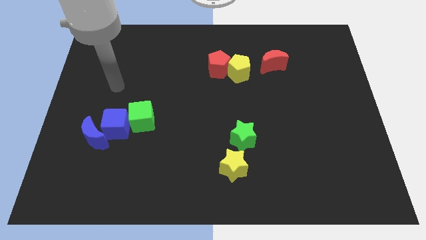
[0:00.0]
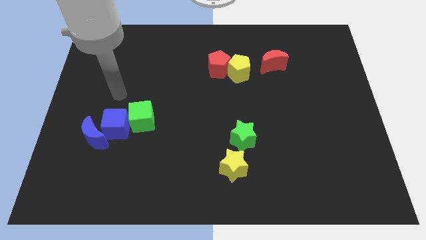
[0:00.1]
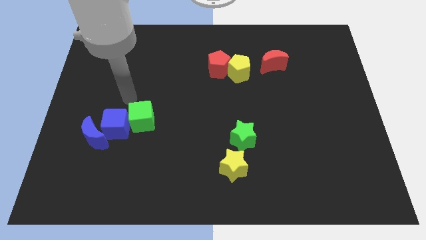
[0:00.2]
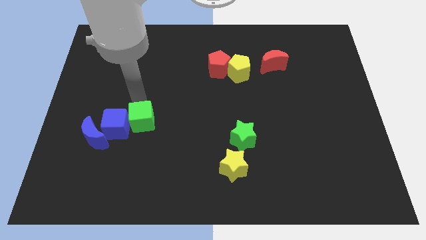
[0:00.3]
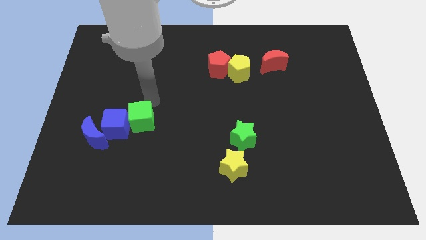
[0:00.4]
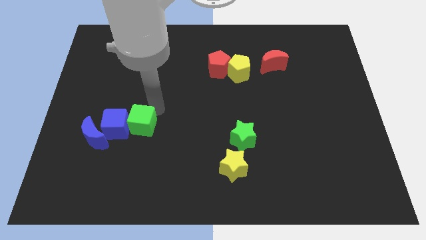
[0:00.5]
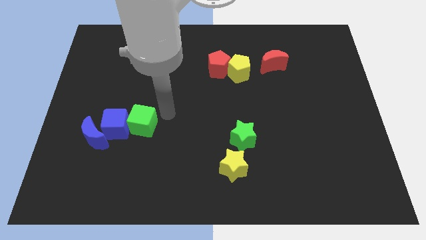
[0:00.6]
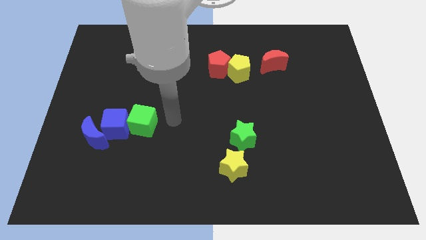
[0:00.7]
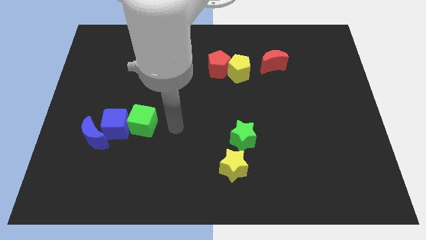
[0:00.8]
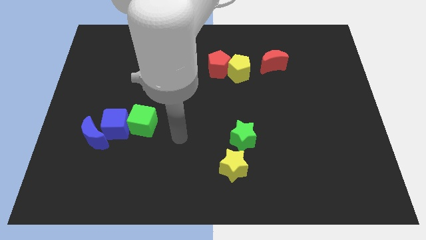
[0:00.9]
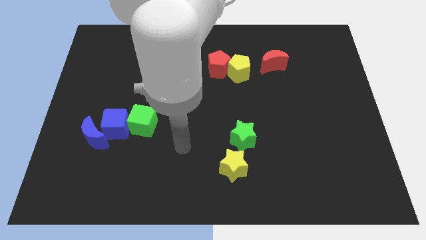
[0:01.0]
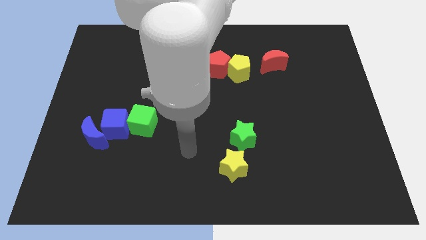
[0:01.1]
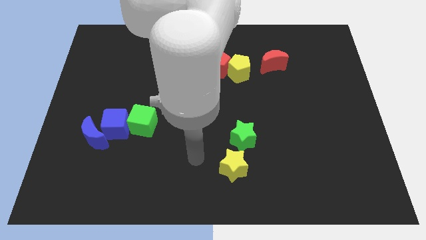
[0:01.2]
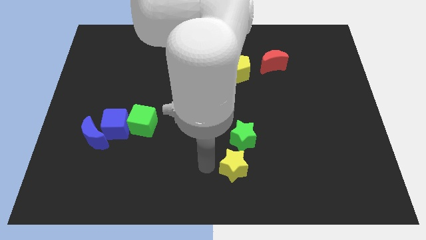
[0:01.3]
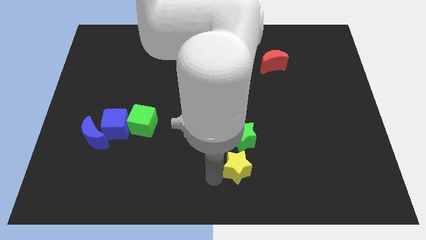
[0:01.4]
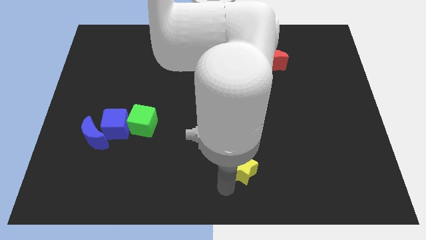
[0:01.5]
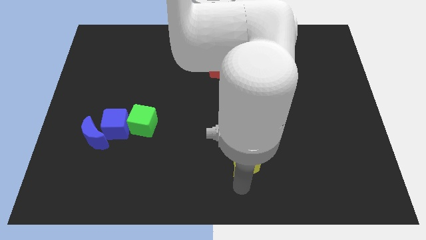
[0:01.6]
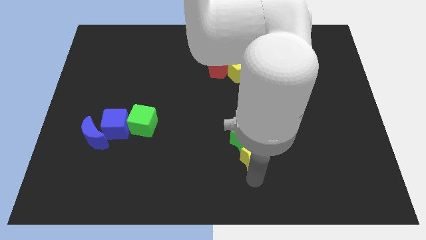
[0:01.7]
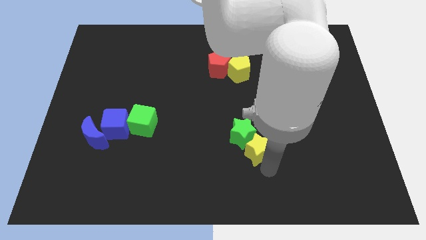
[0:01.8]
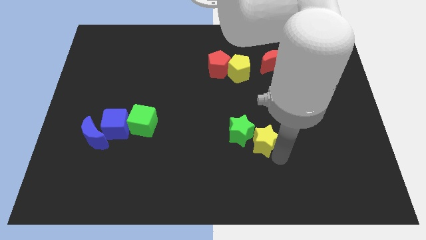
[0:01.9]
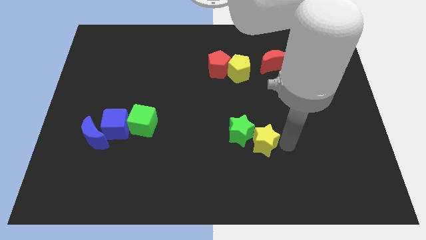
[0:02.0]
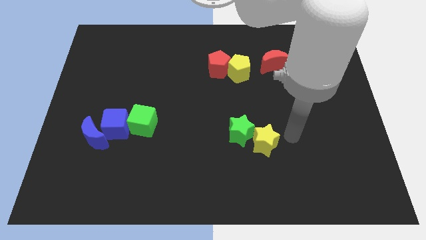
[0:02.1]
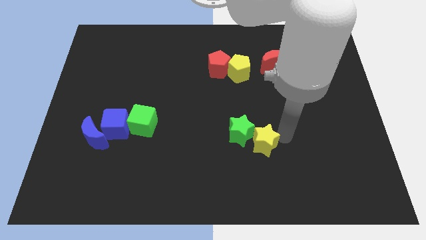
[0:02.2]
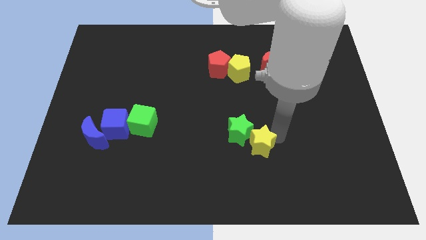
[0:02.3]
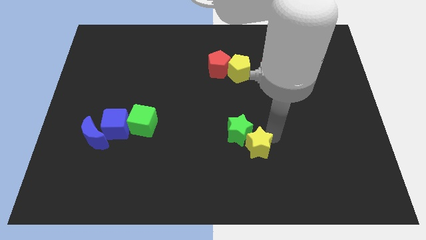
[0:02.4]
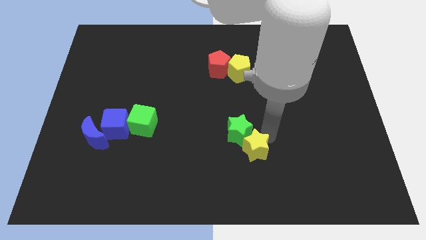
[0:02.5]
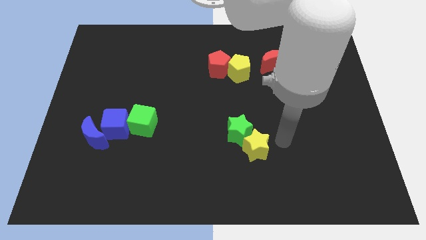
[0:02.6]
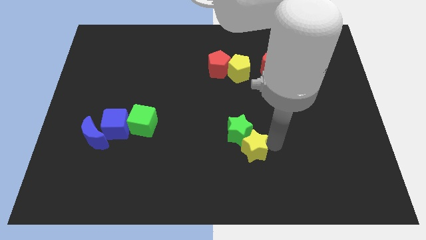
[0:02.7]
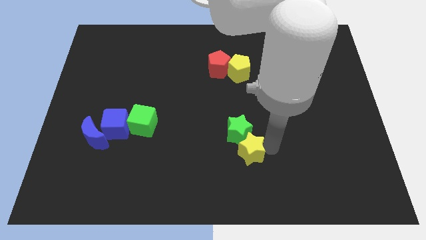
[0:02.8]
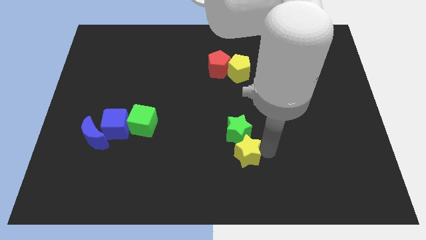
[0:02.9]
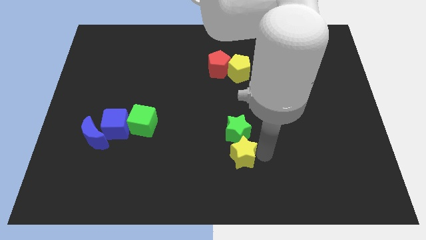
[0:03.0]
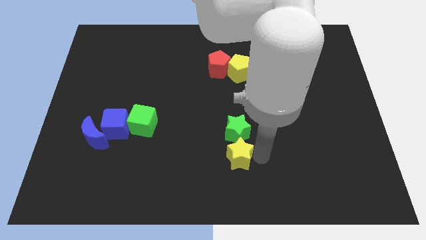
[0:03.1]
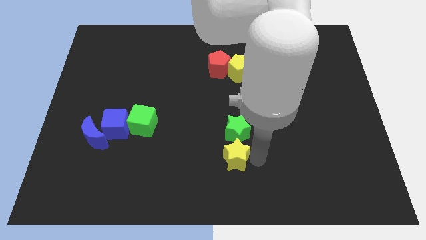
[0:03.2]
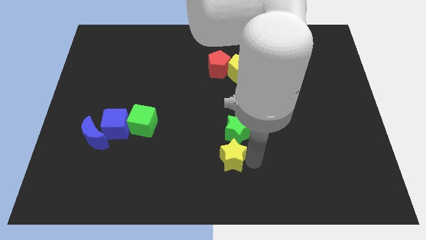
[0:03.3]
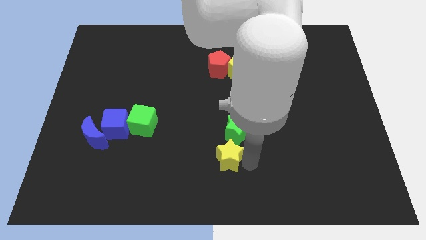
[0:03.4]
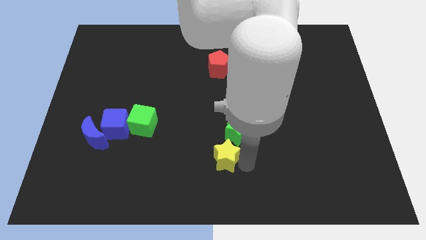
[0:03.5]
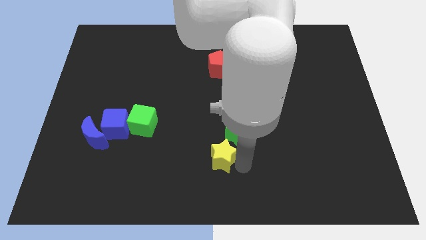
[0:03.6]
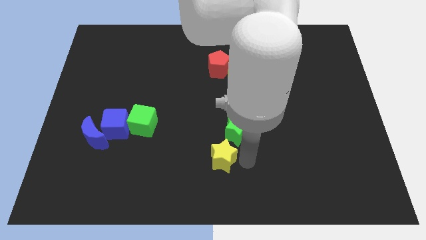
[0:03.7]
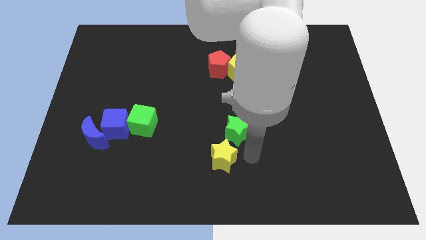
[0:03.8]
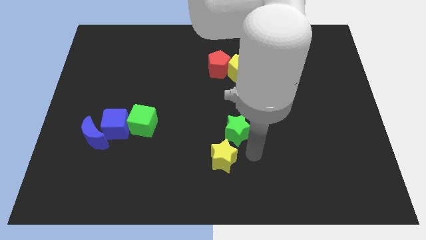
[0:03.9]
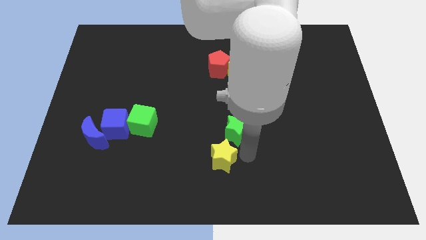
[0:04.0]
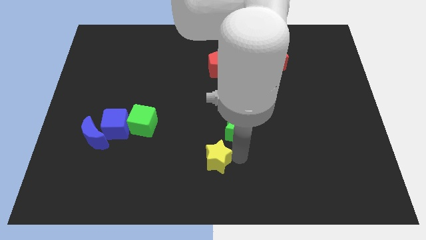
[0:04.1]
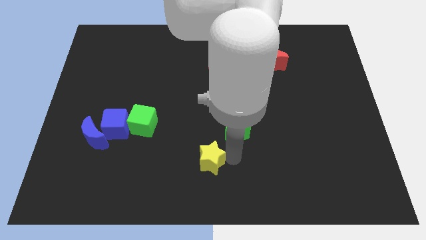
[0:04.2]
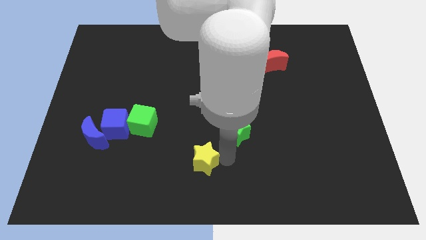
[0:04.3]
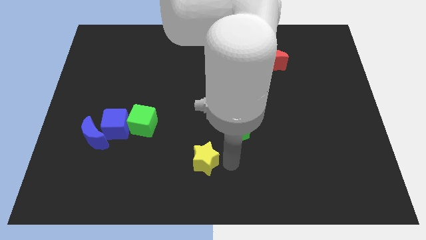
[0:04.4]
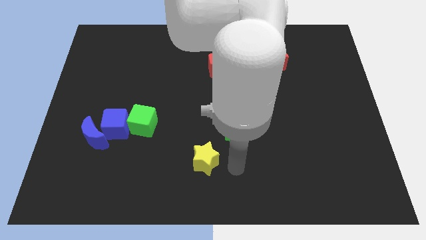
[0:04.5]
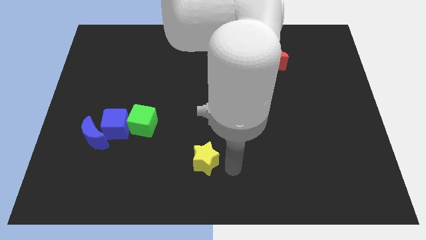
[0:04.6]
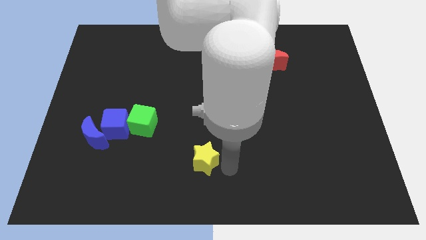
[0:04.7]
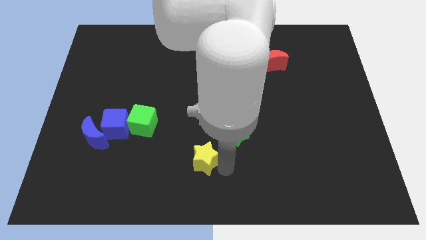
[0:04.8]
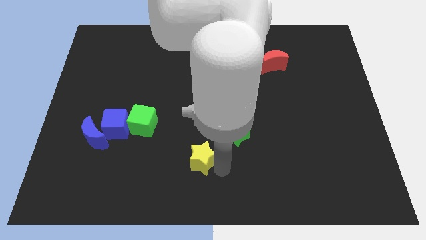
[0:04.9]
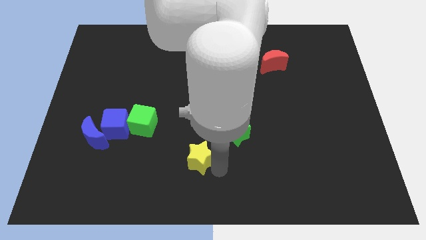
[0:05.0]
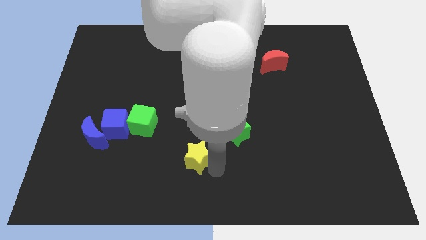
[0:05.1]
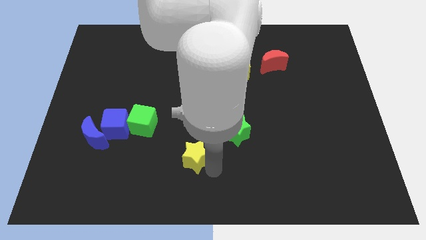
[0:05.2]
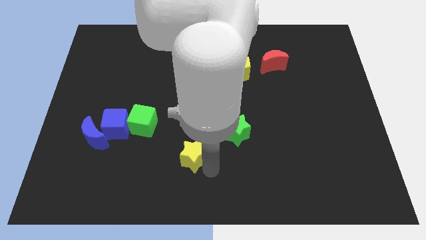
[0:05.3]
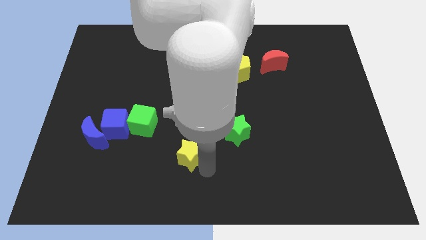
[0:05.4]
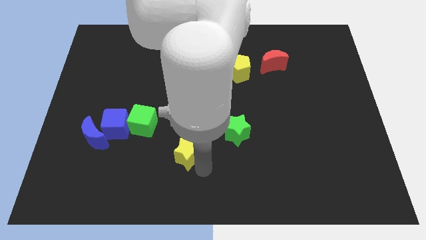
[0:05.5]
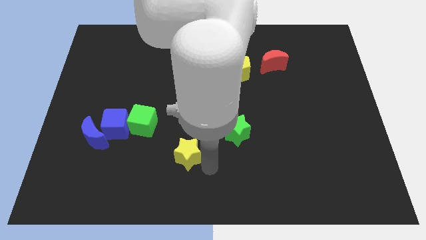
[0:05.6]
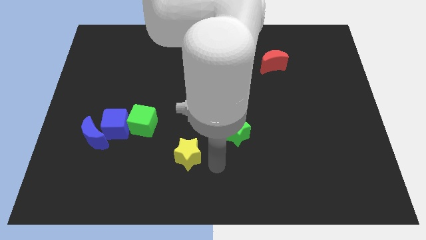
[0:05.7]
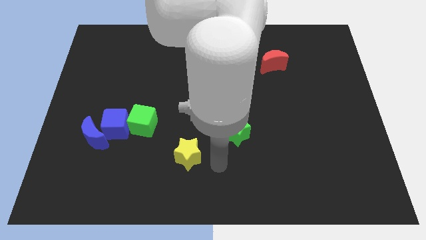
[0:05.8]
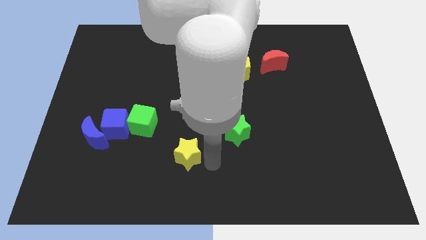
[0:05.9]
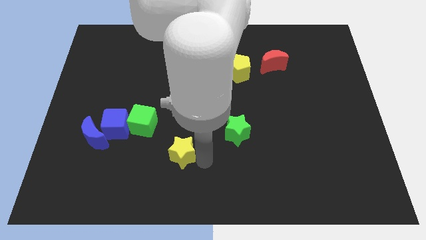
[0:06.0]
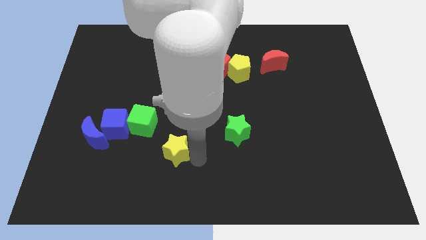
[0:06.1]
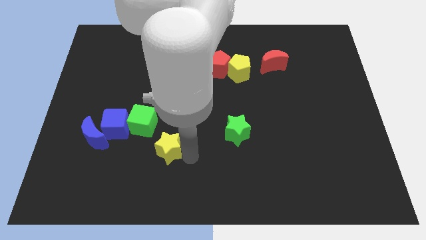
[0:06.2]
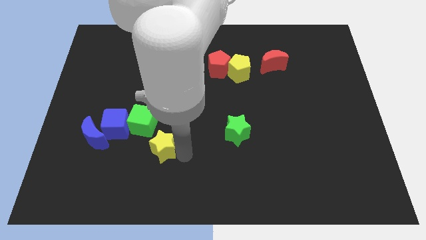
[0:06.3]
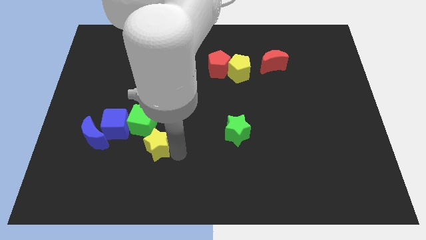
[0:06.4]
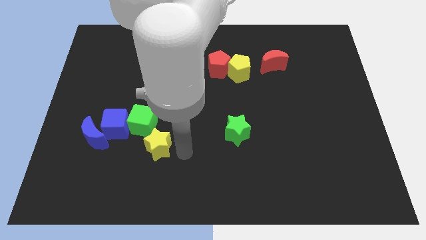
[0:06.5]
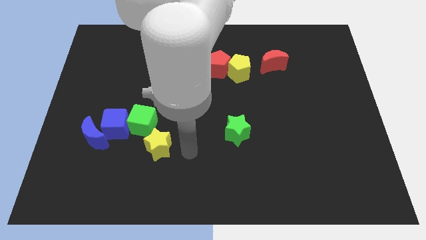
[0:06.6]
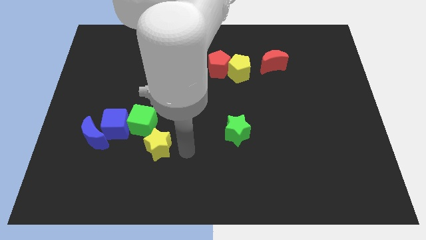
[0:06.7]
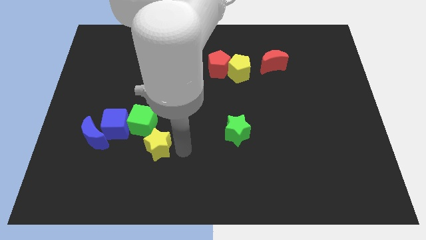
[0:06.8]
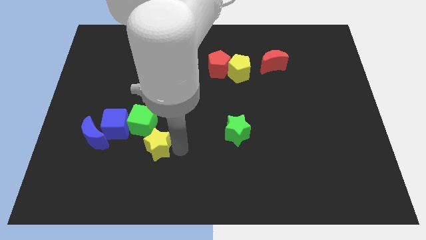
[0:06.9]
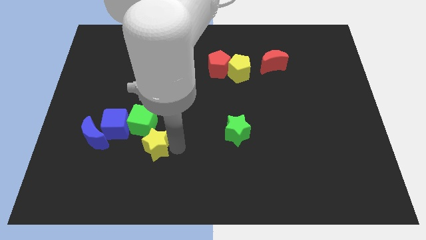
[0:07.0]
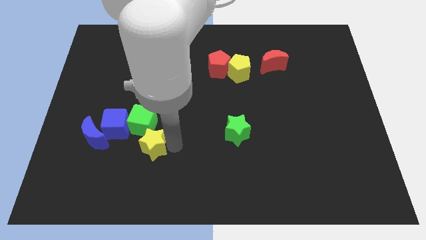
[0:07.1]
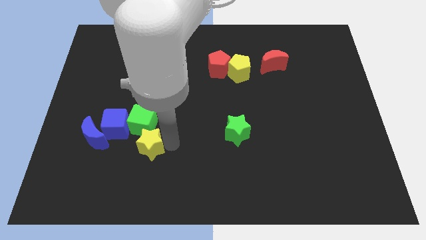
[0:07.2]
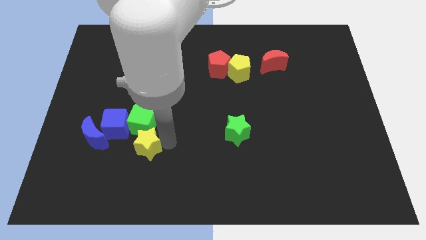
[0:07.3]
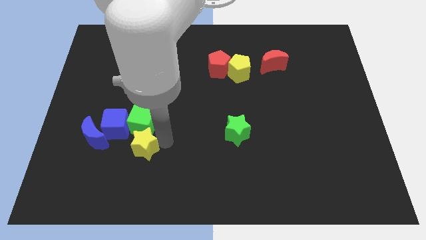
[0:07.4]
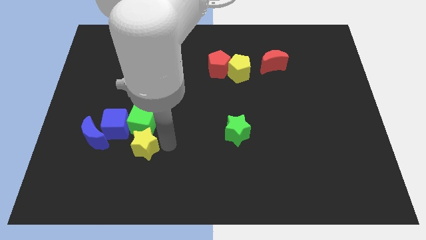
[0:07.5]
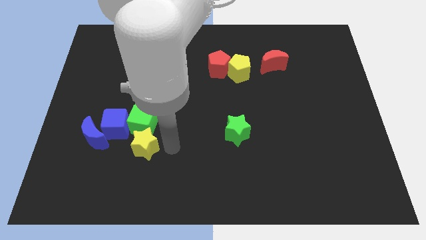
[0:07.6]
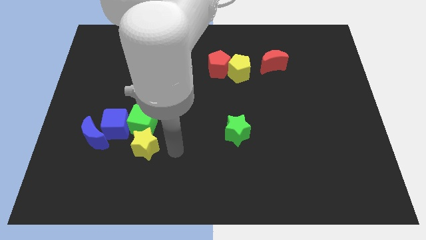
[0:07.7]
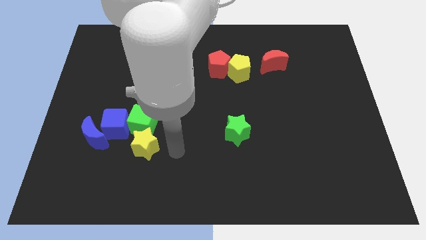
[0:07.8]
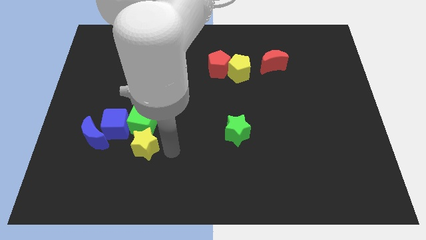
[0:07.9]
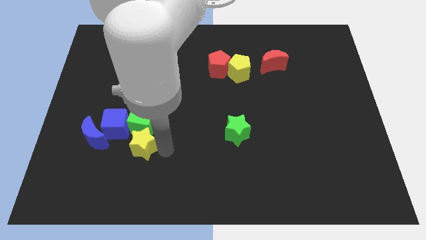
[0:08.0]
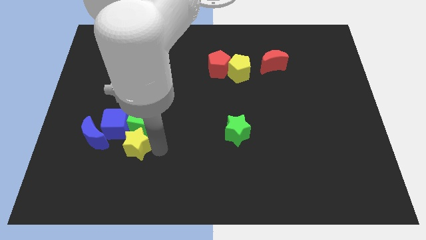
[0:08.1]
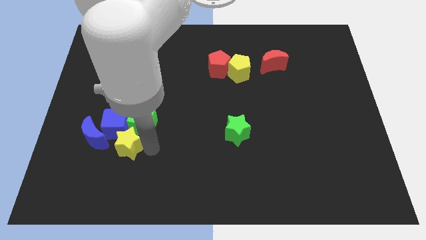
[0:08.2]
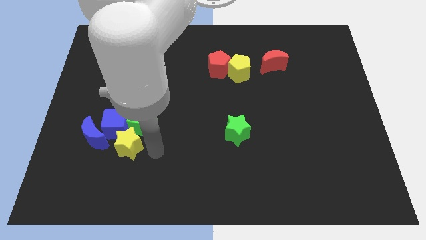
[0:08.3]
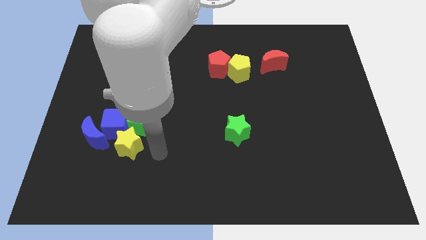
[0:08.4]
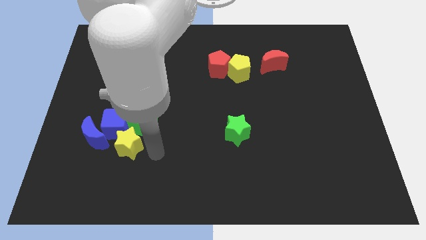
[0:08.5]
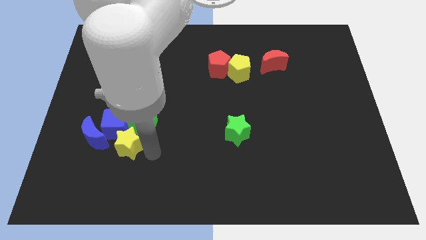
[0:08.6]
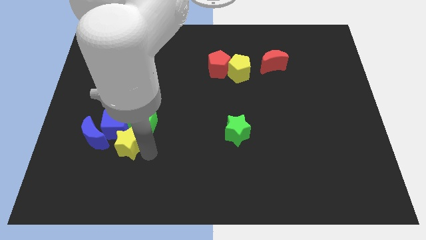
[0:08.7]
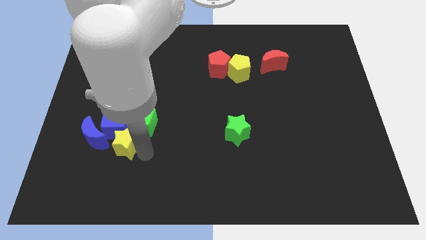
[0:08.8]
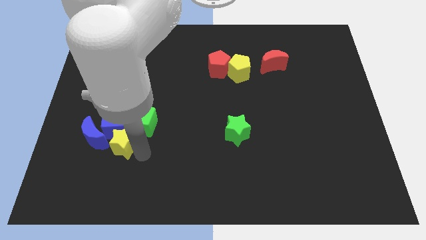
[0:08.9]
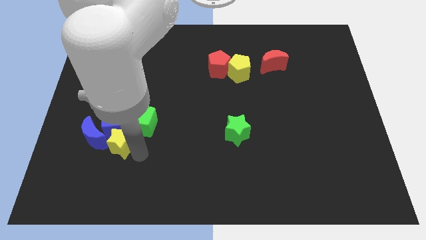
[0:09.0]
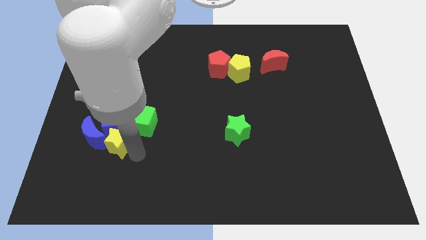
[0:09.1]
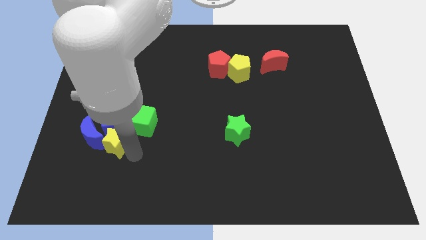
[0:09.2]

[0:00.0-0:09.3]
slide the yellow star close to the blue moon
